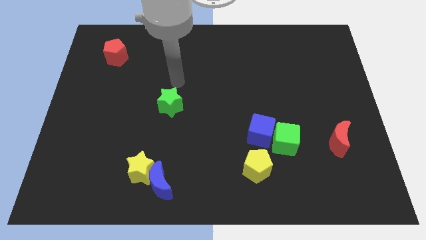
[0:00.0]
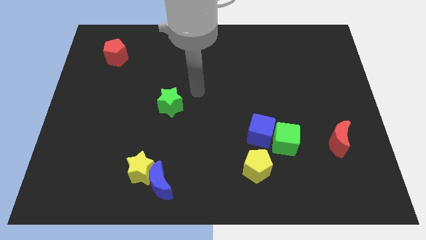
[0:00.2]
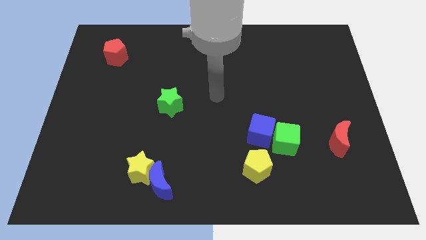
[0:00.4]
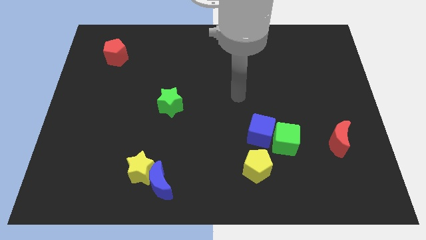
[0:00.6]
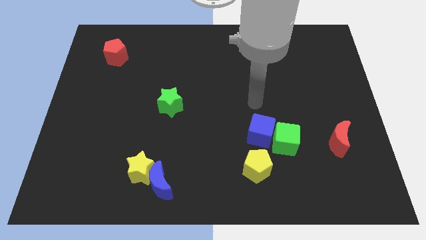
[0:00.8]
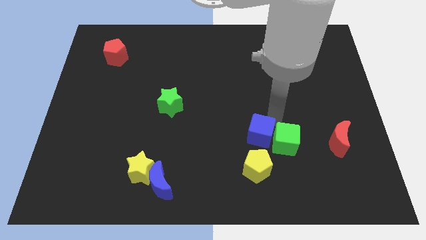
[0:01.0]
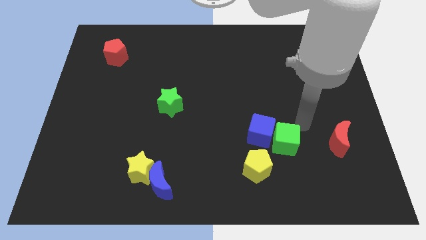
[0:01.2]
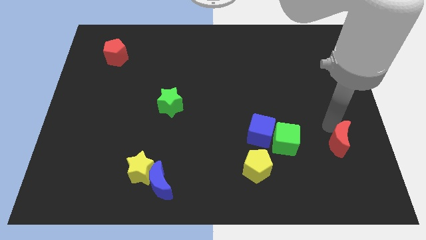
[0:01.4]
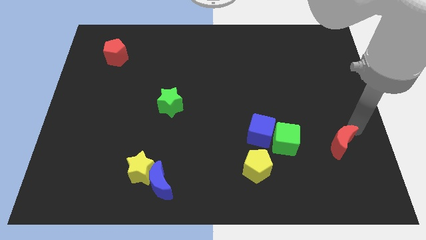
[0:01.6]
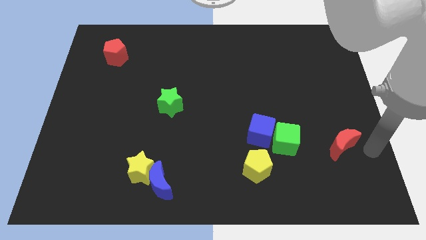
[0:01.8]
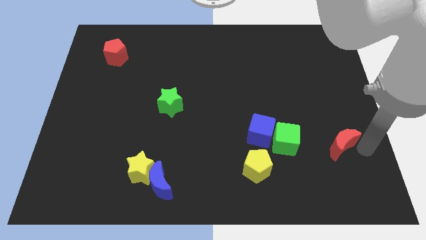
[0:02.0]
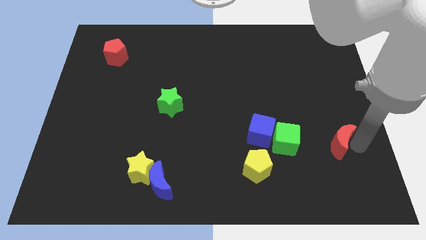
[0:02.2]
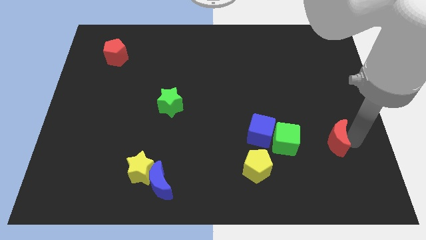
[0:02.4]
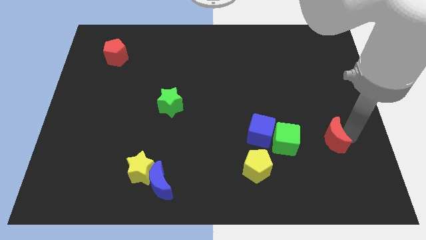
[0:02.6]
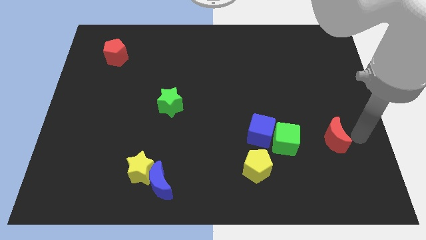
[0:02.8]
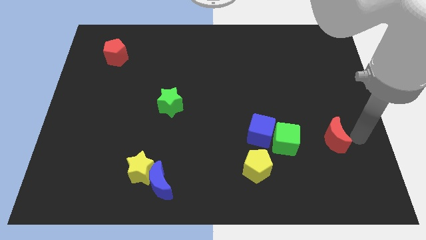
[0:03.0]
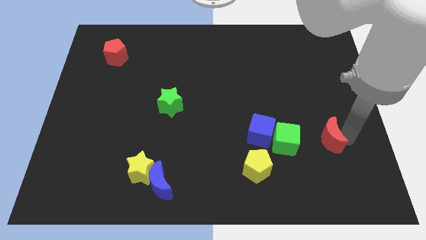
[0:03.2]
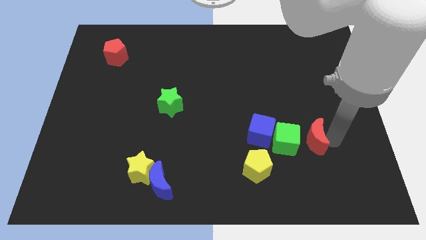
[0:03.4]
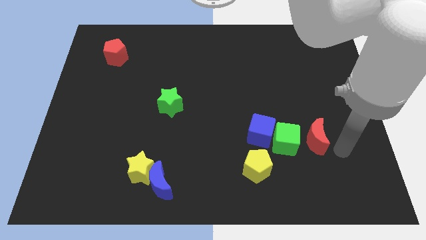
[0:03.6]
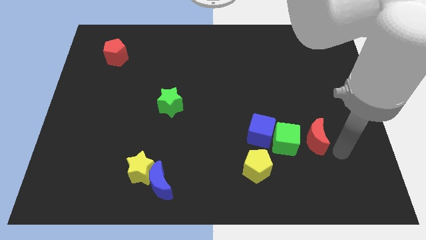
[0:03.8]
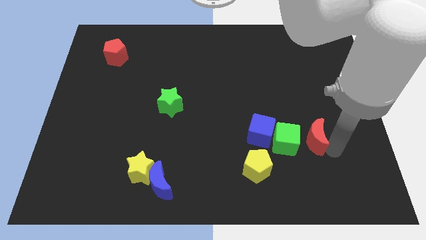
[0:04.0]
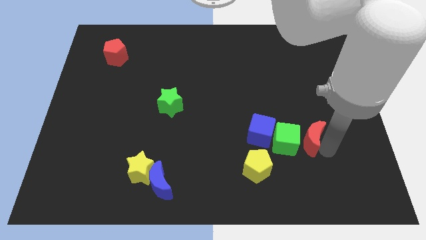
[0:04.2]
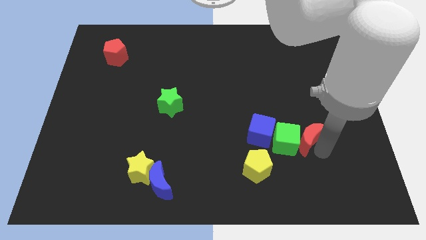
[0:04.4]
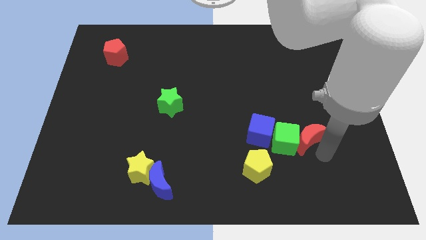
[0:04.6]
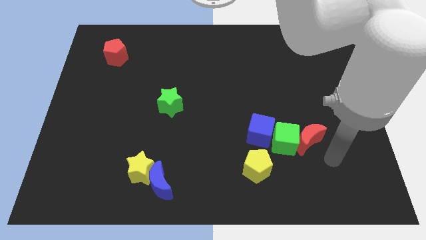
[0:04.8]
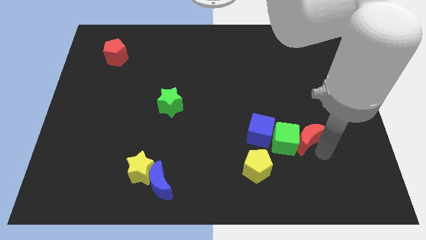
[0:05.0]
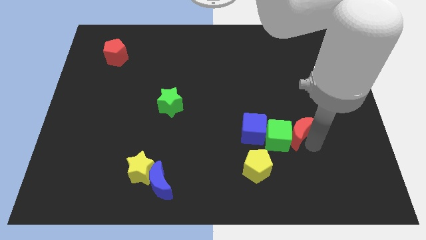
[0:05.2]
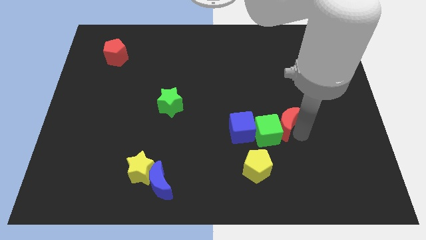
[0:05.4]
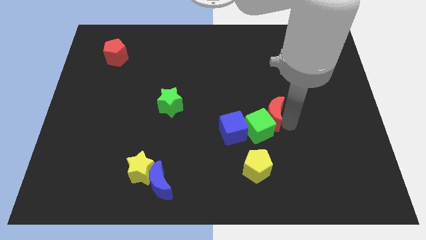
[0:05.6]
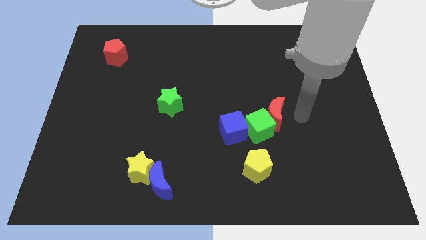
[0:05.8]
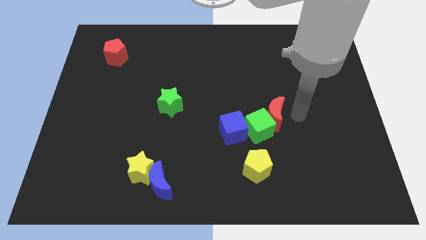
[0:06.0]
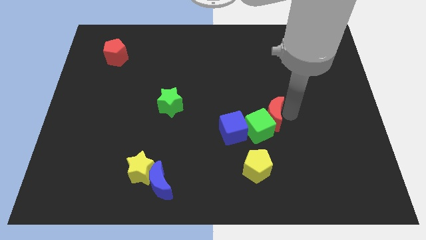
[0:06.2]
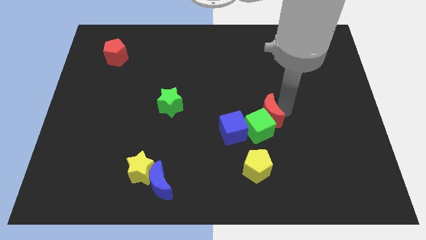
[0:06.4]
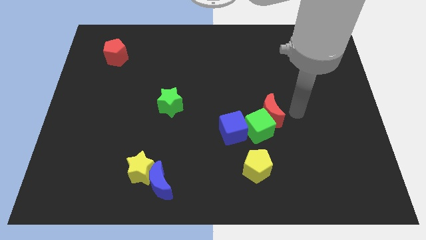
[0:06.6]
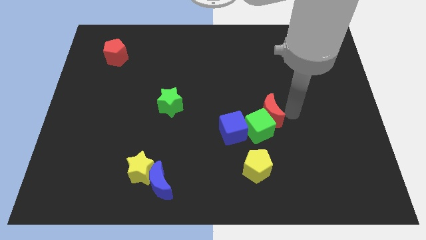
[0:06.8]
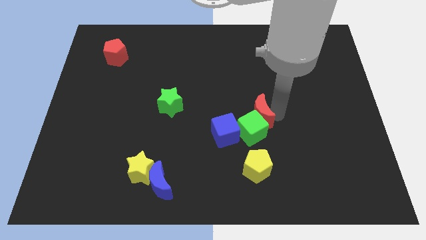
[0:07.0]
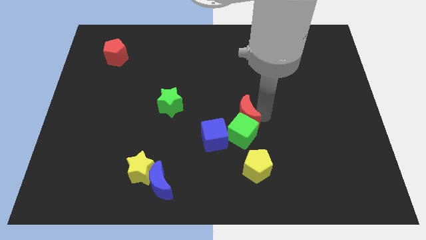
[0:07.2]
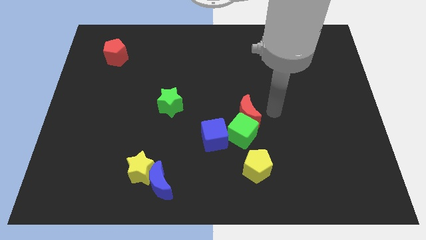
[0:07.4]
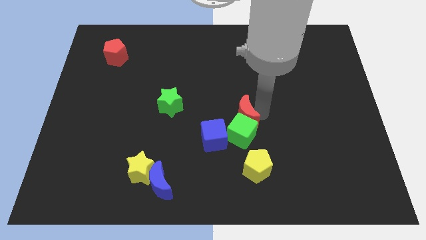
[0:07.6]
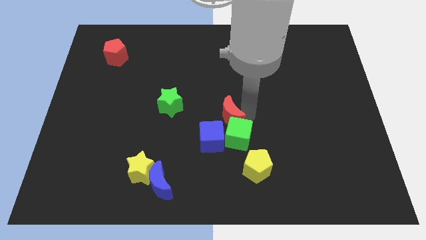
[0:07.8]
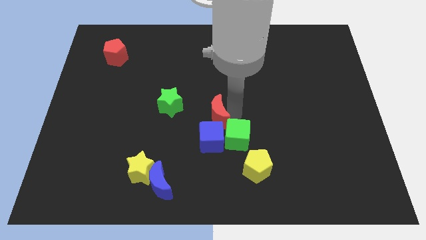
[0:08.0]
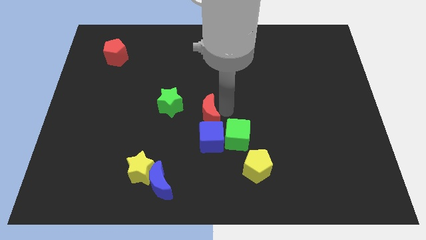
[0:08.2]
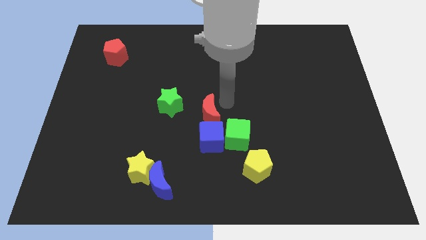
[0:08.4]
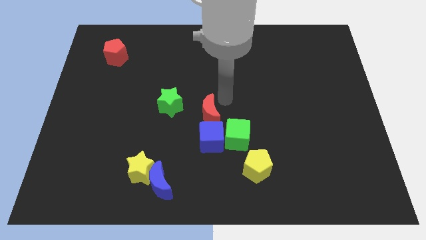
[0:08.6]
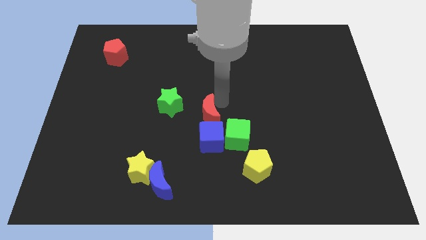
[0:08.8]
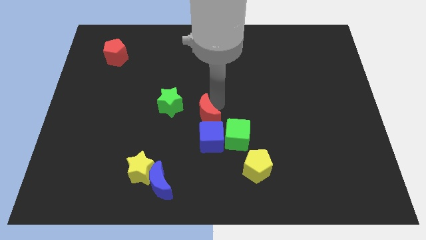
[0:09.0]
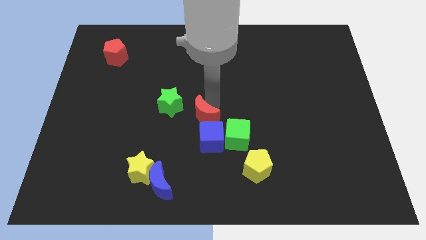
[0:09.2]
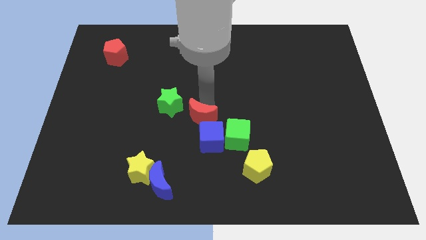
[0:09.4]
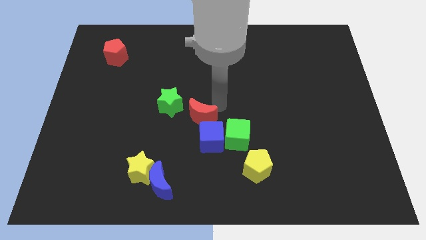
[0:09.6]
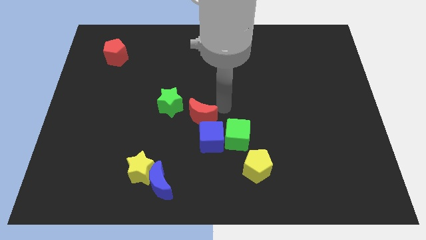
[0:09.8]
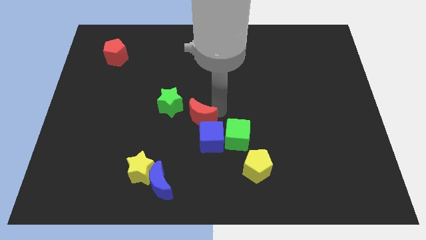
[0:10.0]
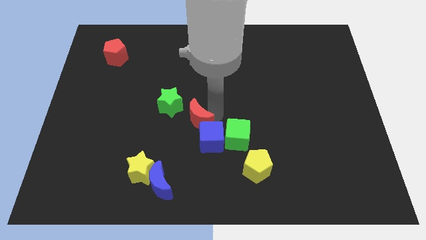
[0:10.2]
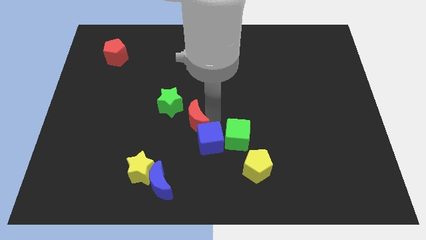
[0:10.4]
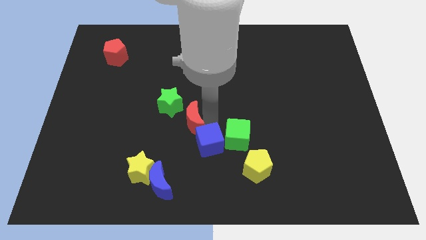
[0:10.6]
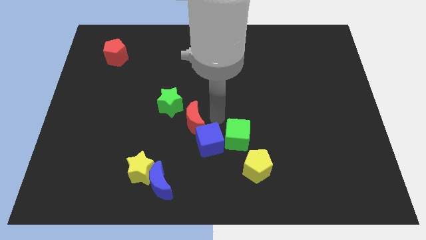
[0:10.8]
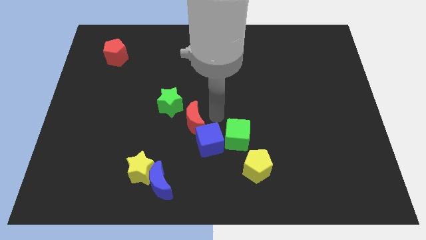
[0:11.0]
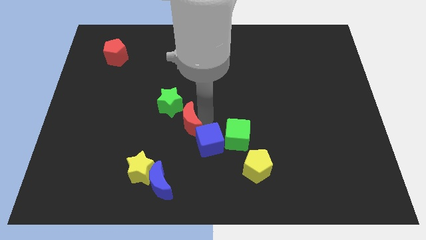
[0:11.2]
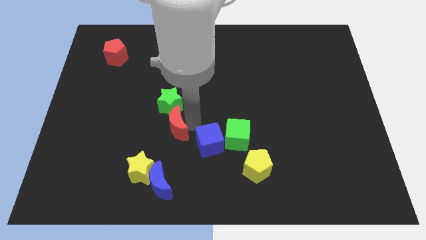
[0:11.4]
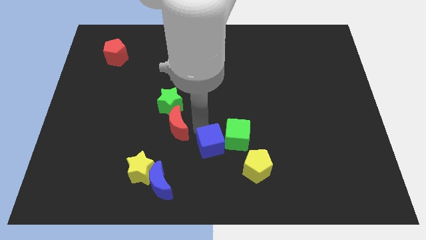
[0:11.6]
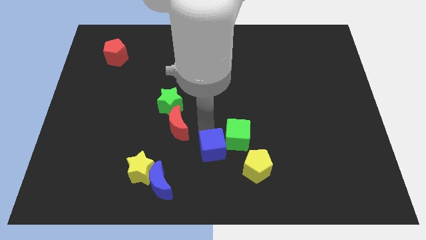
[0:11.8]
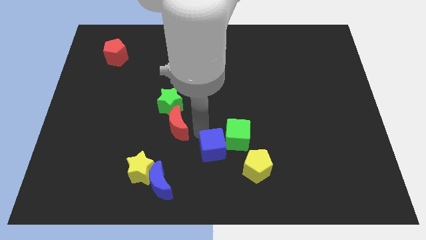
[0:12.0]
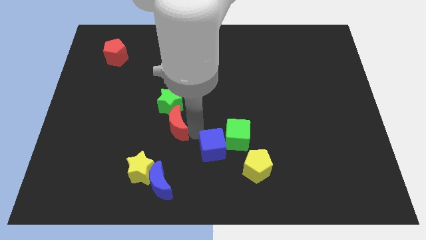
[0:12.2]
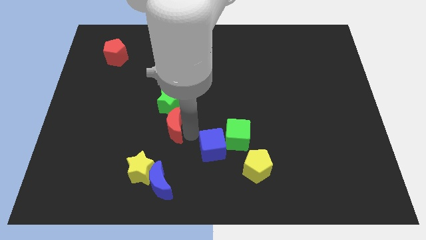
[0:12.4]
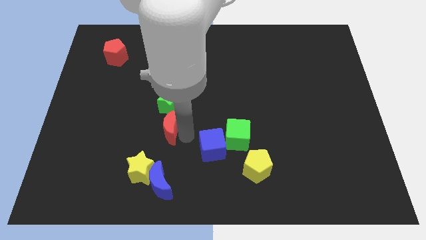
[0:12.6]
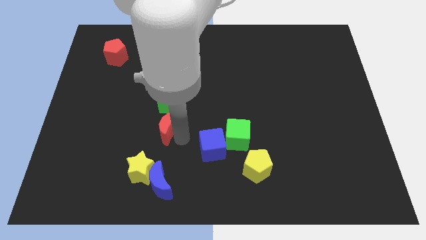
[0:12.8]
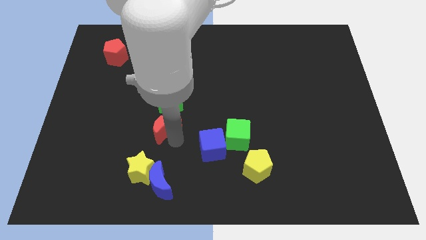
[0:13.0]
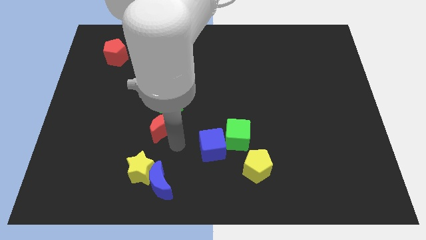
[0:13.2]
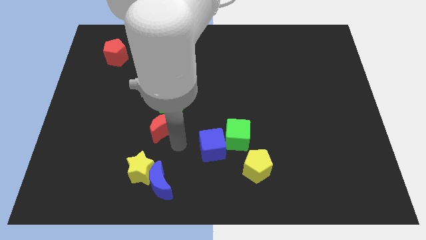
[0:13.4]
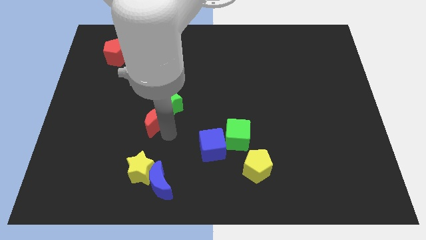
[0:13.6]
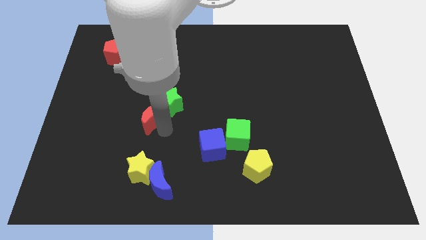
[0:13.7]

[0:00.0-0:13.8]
put the red moon just left of the green star
